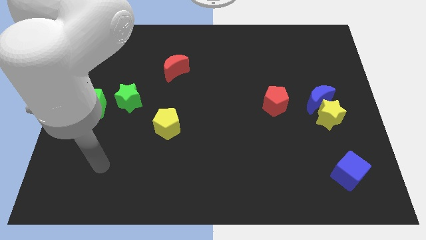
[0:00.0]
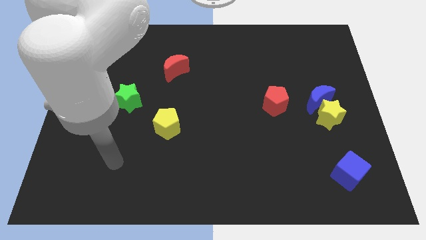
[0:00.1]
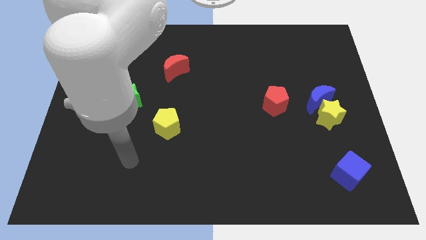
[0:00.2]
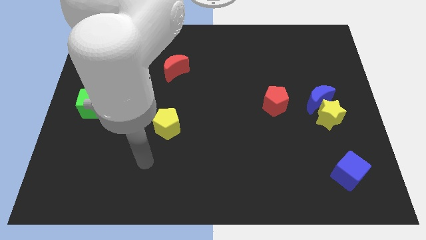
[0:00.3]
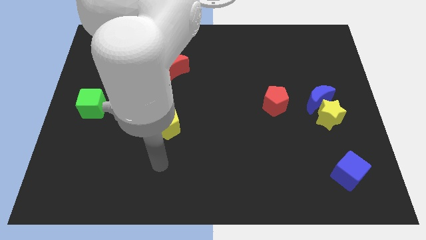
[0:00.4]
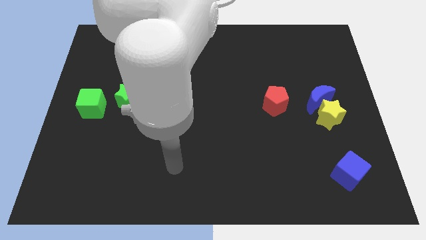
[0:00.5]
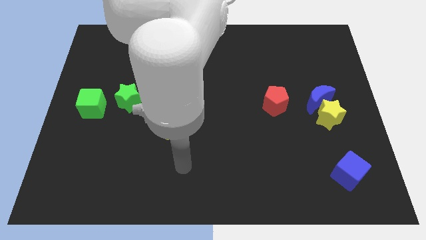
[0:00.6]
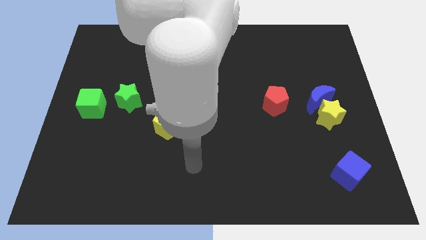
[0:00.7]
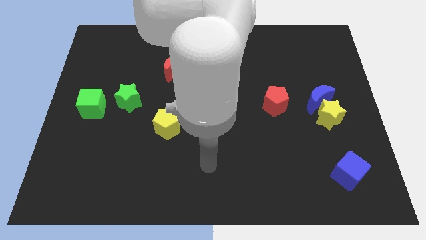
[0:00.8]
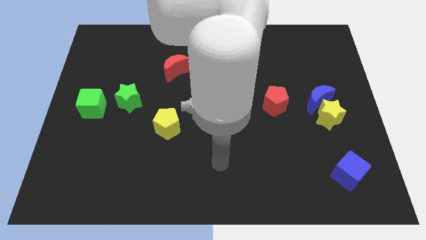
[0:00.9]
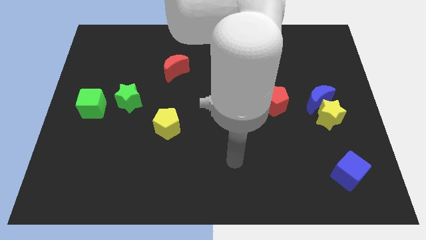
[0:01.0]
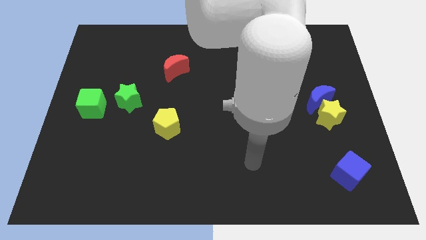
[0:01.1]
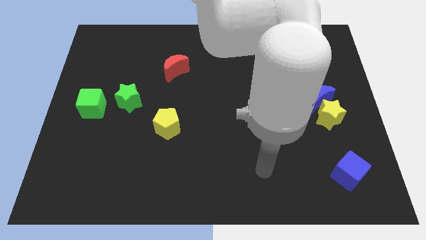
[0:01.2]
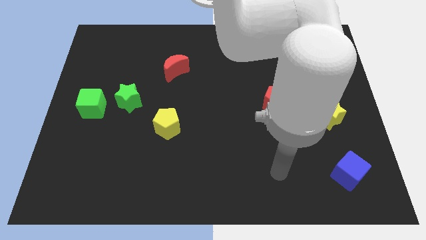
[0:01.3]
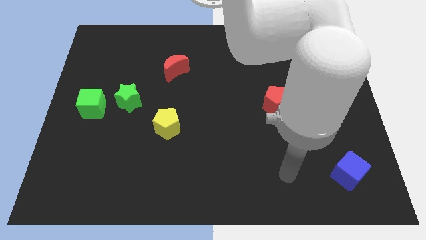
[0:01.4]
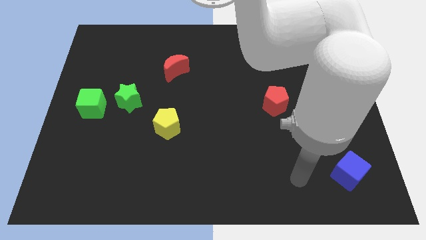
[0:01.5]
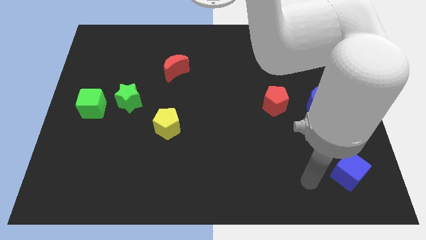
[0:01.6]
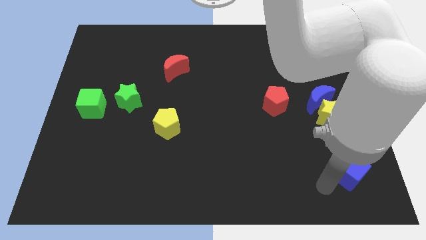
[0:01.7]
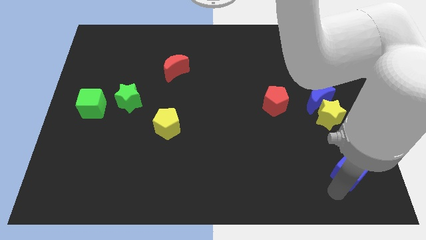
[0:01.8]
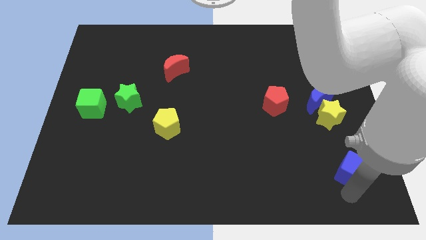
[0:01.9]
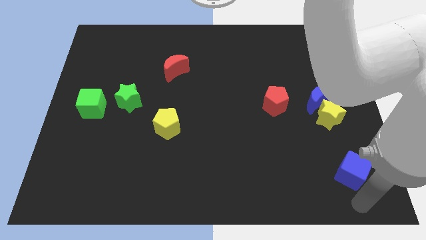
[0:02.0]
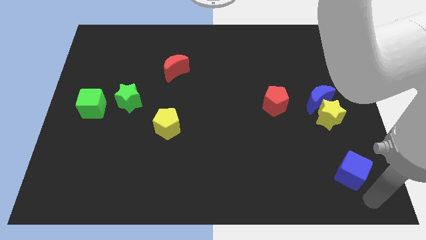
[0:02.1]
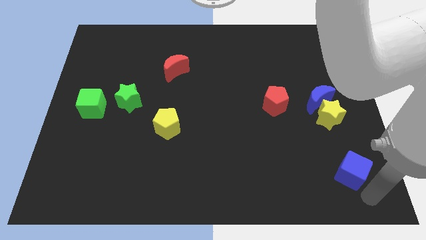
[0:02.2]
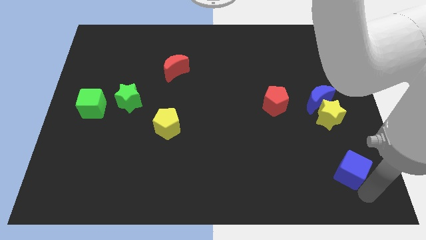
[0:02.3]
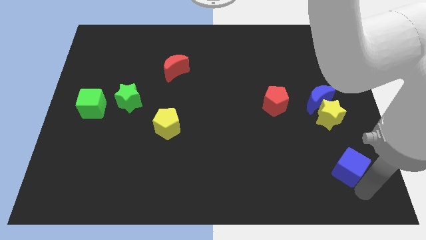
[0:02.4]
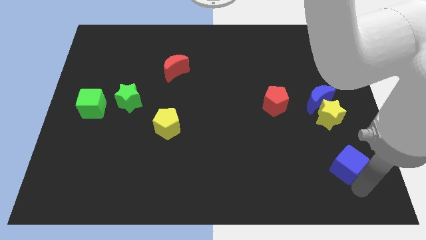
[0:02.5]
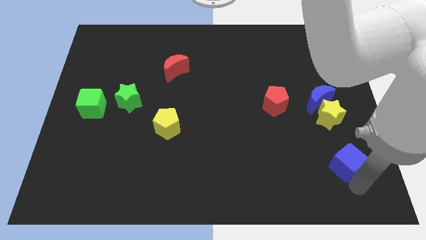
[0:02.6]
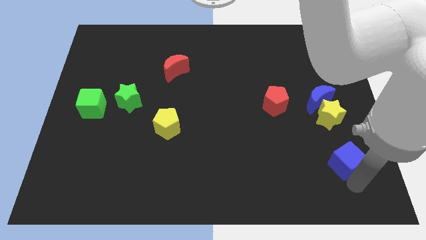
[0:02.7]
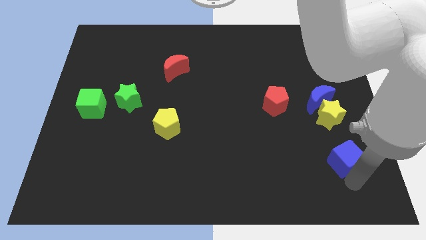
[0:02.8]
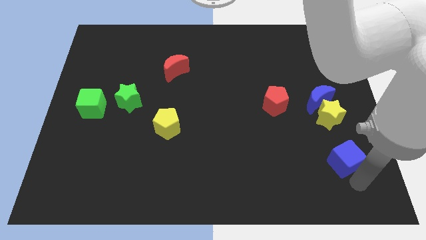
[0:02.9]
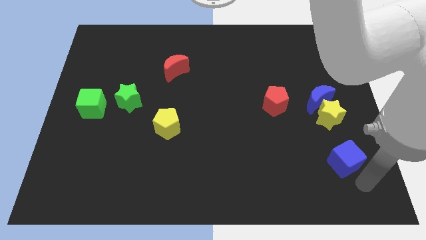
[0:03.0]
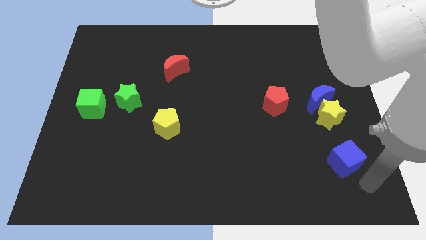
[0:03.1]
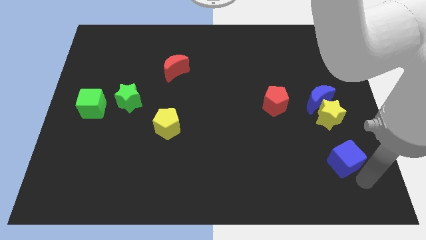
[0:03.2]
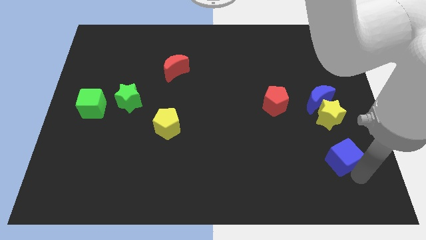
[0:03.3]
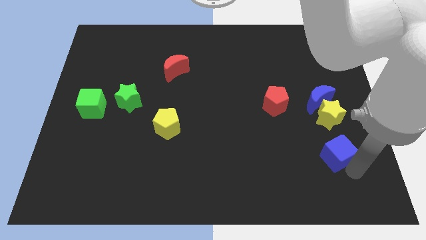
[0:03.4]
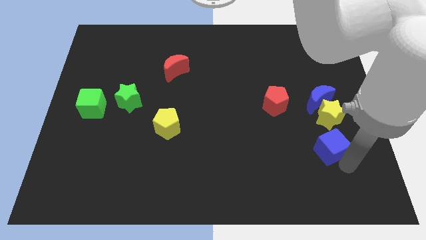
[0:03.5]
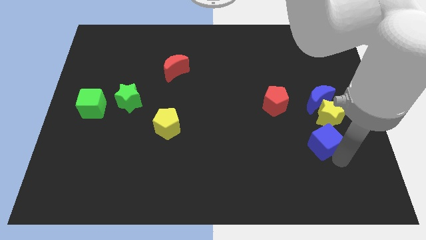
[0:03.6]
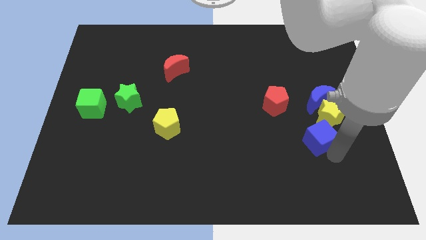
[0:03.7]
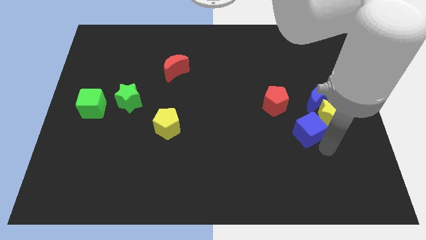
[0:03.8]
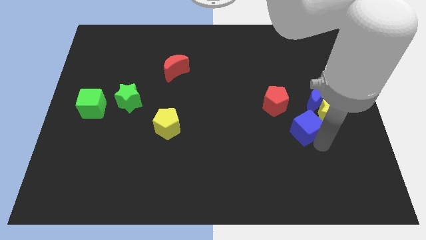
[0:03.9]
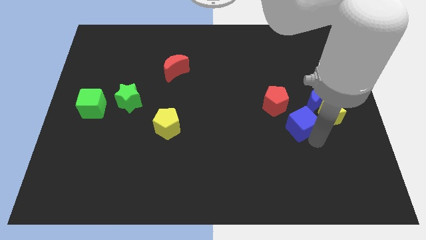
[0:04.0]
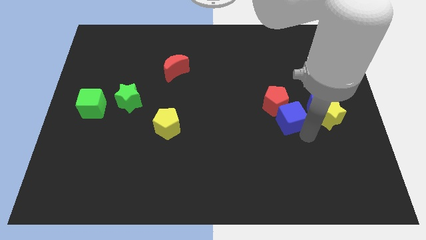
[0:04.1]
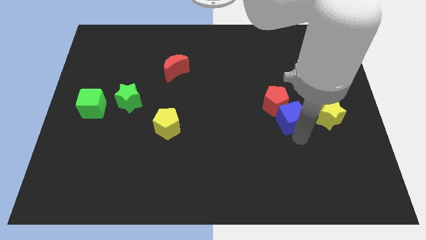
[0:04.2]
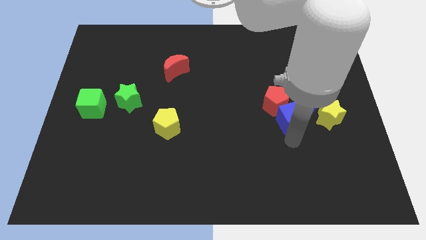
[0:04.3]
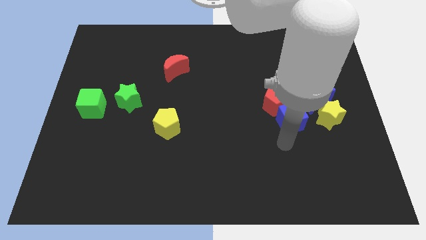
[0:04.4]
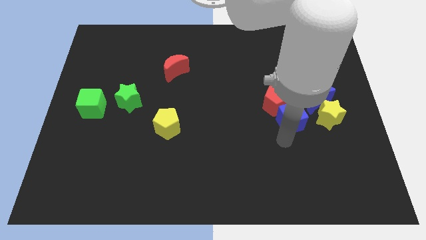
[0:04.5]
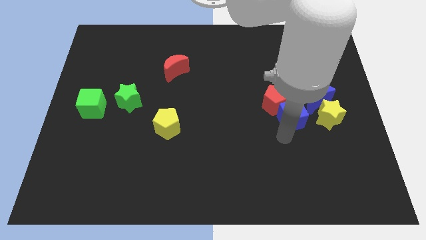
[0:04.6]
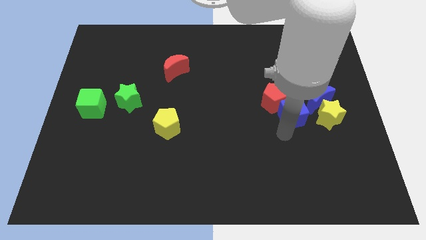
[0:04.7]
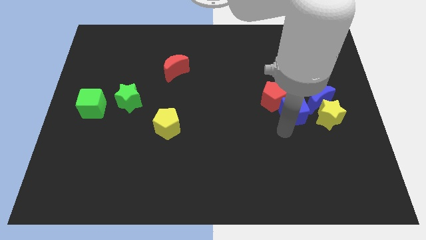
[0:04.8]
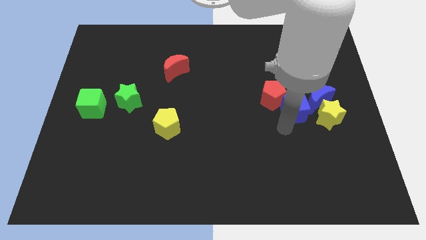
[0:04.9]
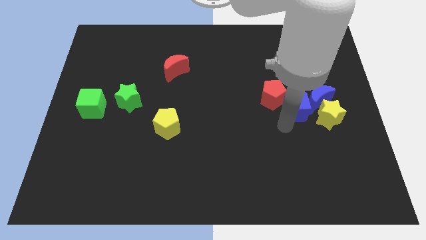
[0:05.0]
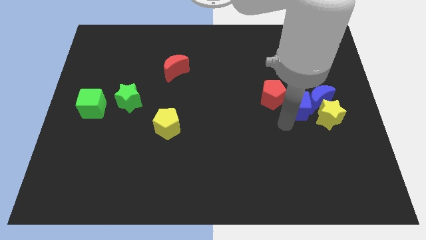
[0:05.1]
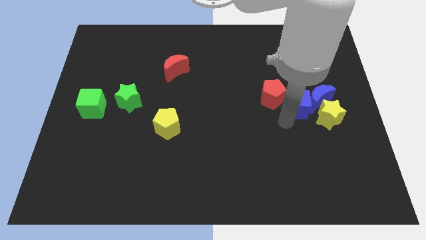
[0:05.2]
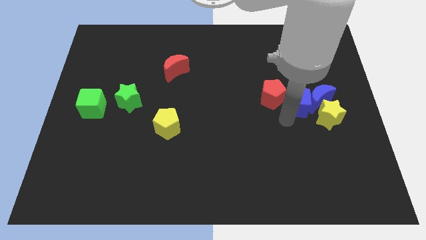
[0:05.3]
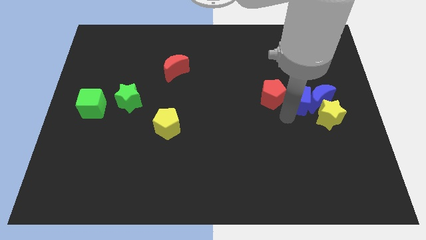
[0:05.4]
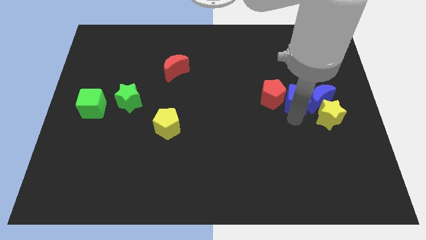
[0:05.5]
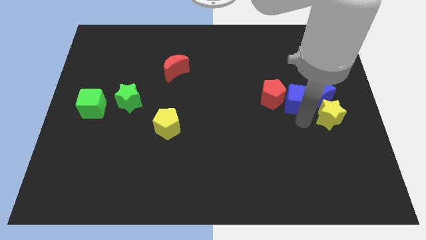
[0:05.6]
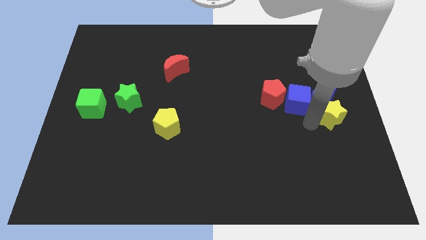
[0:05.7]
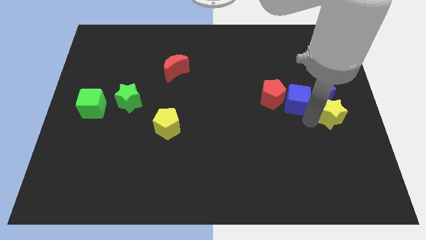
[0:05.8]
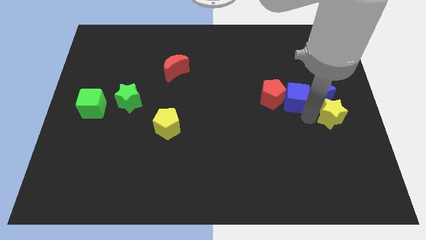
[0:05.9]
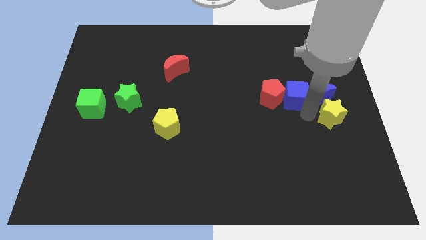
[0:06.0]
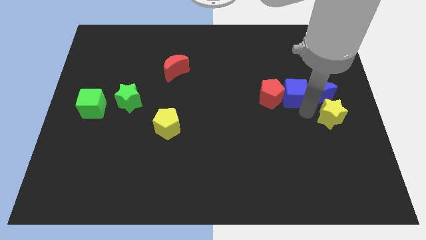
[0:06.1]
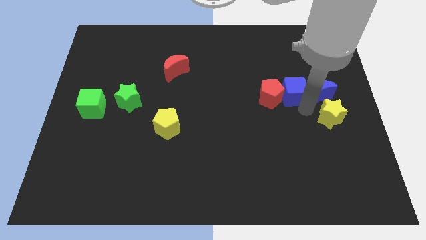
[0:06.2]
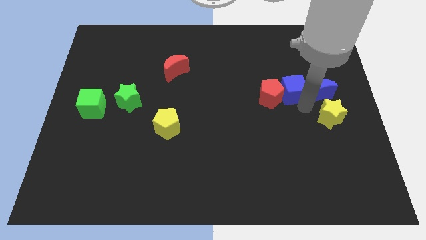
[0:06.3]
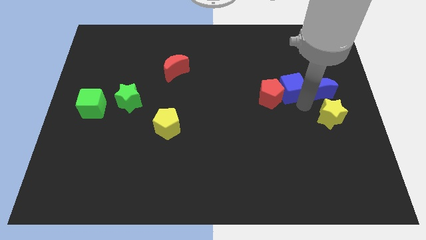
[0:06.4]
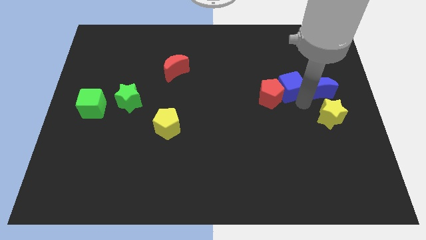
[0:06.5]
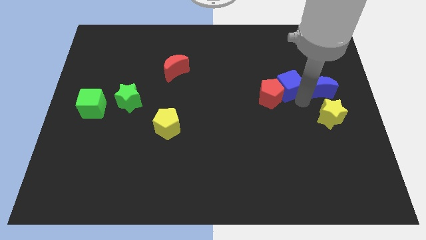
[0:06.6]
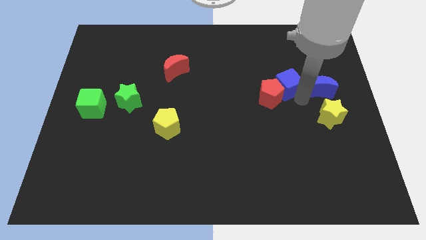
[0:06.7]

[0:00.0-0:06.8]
push the blue cube above the red pentagon

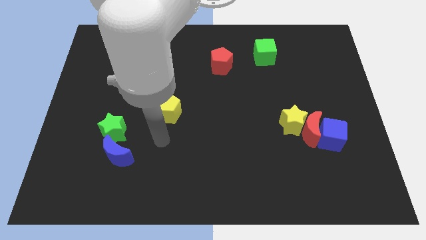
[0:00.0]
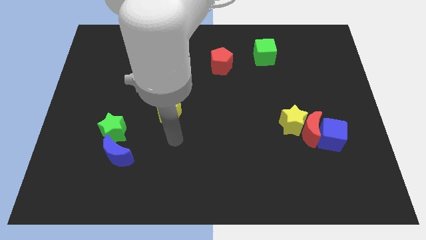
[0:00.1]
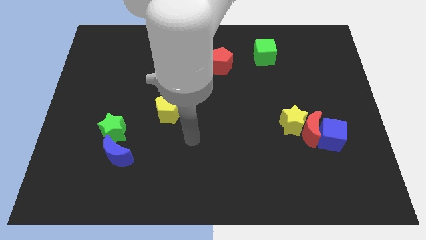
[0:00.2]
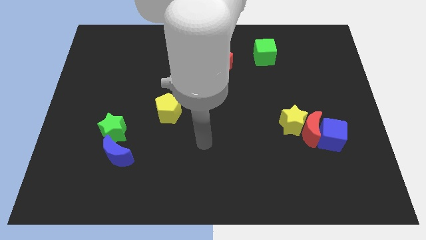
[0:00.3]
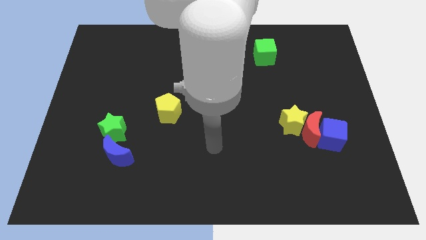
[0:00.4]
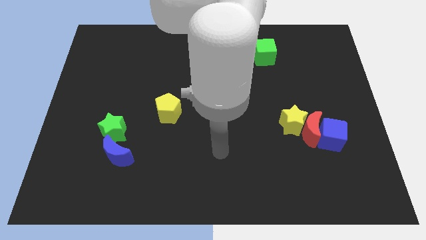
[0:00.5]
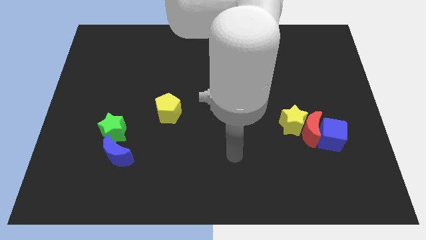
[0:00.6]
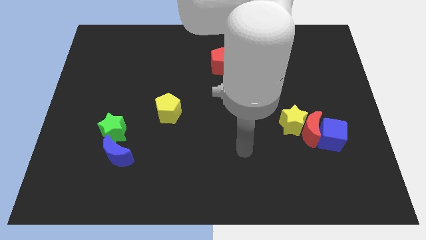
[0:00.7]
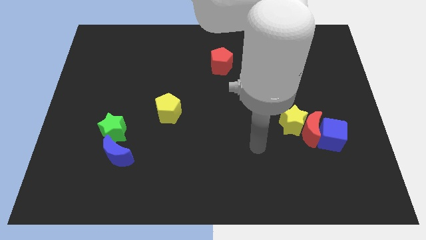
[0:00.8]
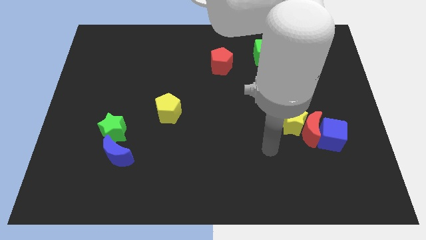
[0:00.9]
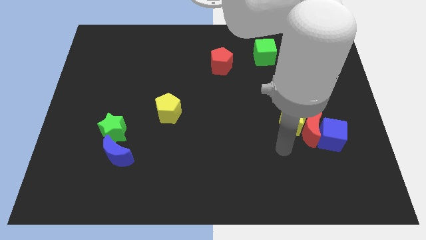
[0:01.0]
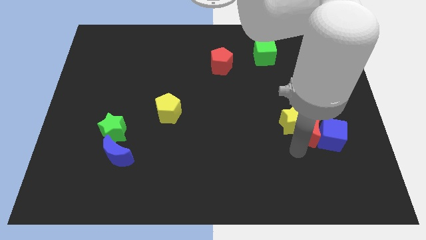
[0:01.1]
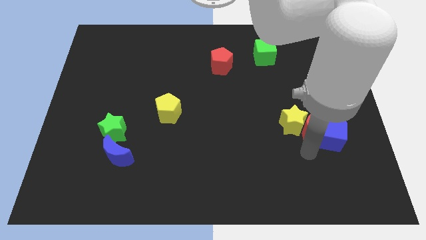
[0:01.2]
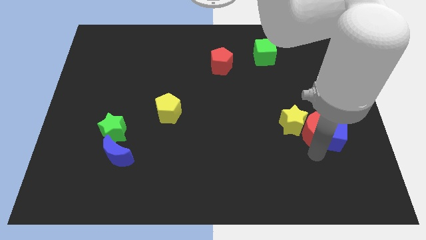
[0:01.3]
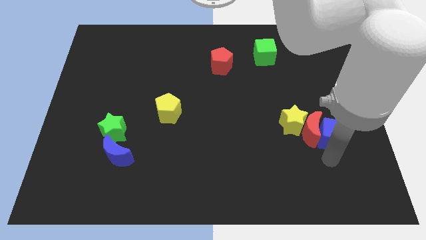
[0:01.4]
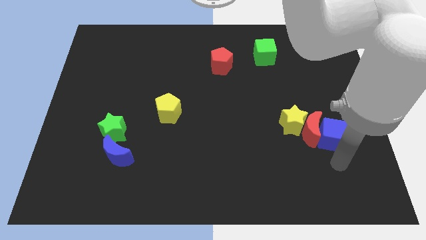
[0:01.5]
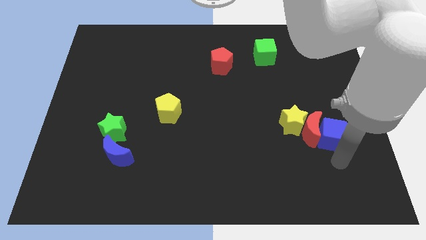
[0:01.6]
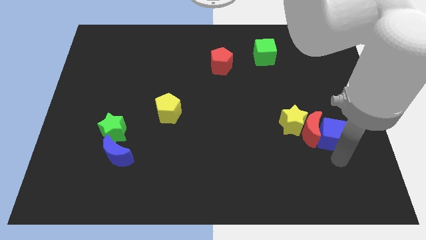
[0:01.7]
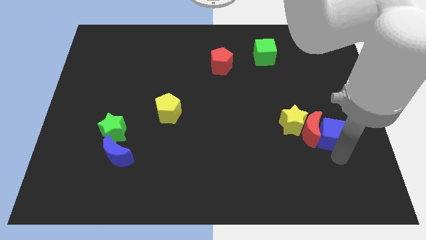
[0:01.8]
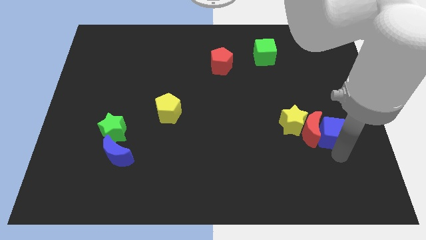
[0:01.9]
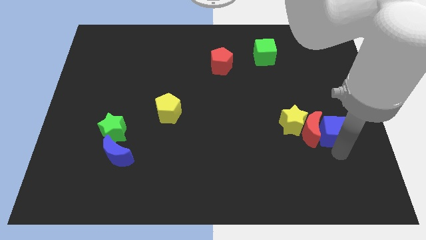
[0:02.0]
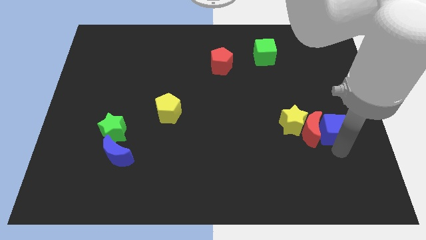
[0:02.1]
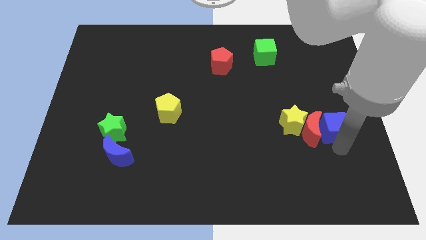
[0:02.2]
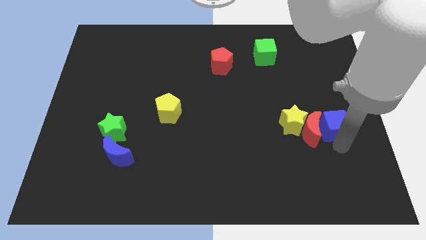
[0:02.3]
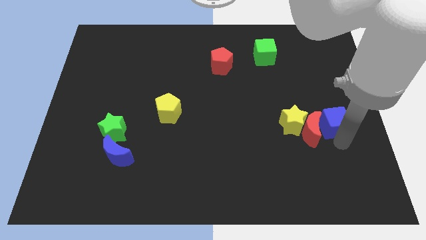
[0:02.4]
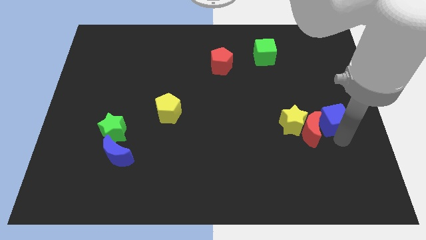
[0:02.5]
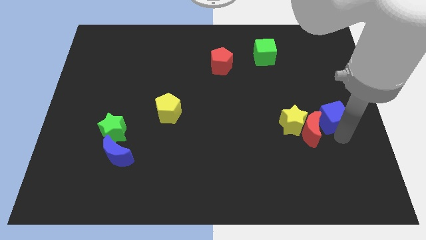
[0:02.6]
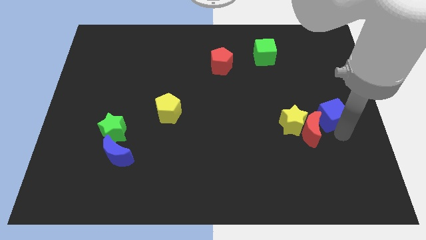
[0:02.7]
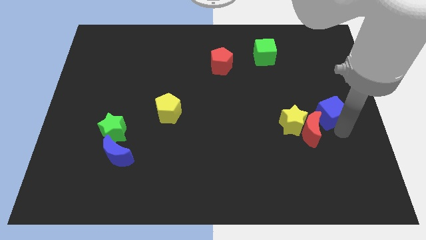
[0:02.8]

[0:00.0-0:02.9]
slide the blue cube to the top right side of the yellow star
